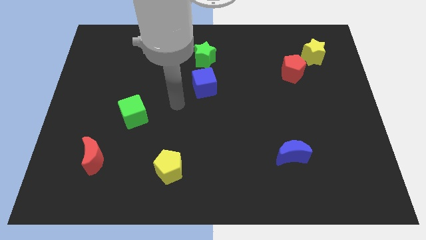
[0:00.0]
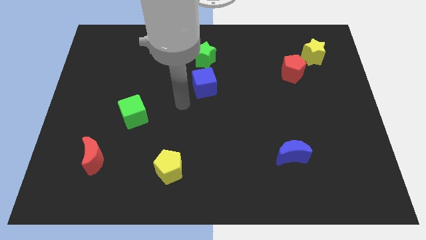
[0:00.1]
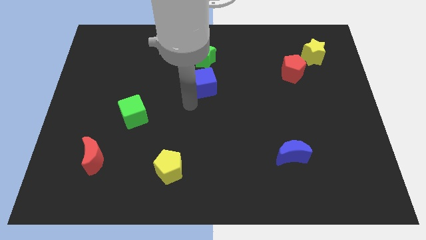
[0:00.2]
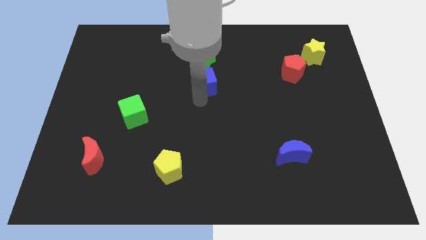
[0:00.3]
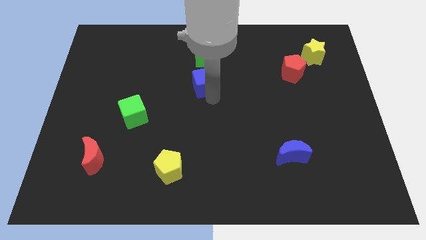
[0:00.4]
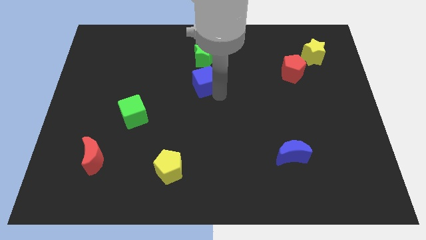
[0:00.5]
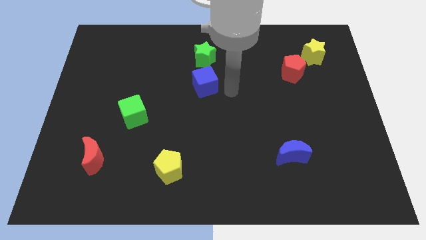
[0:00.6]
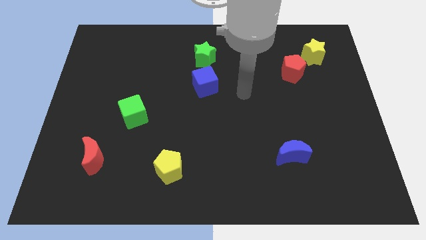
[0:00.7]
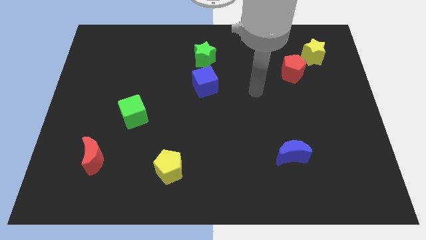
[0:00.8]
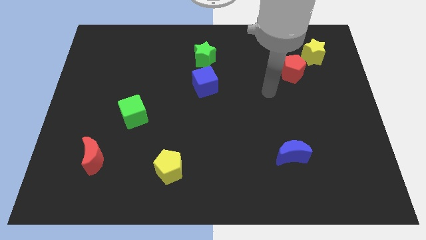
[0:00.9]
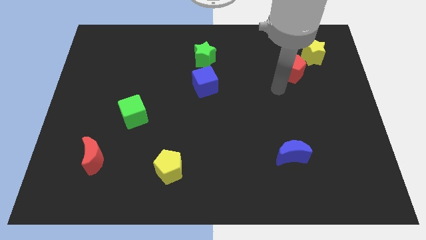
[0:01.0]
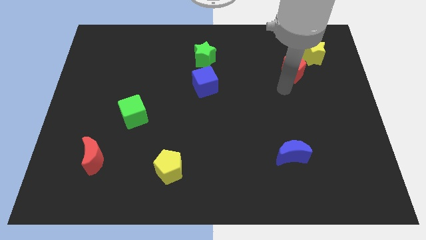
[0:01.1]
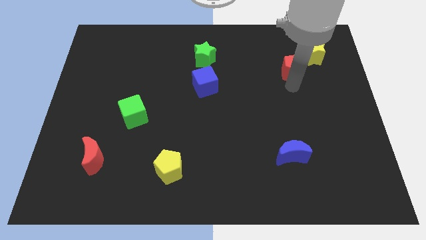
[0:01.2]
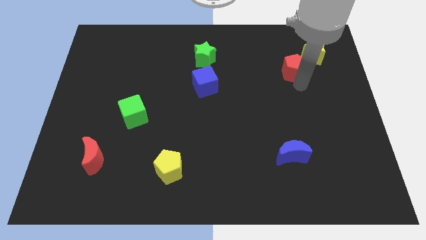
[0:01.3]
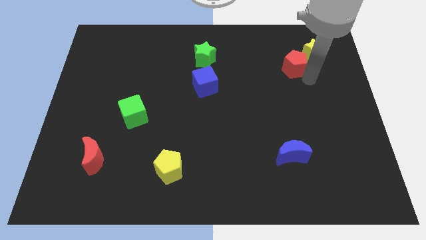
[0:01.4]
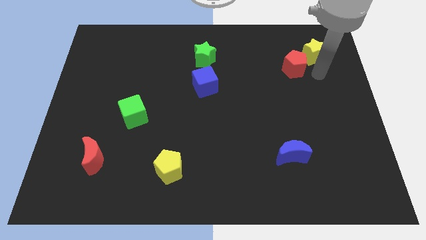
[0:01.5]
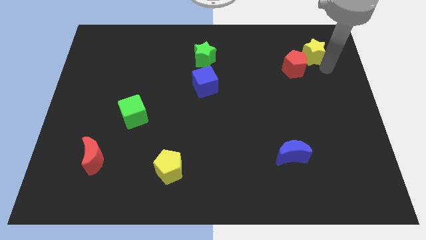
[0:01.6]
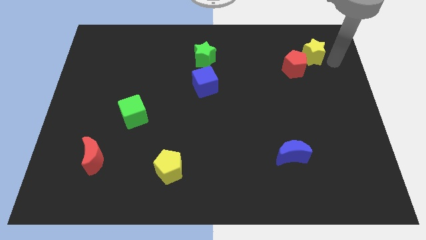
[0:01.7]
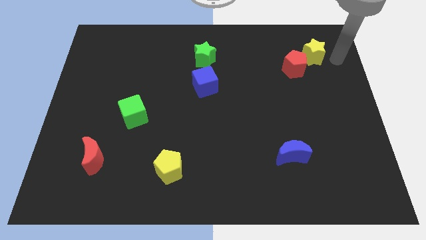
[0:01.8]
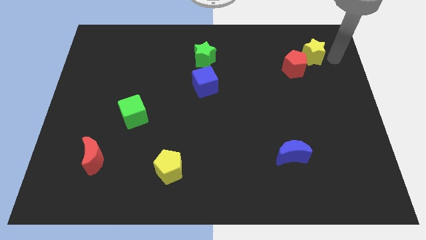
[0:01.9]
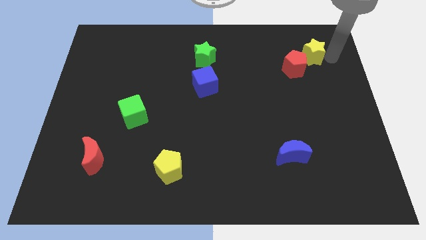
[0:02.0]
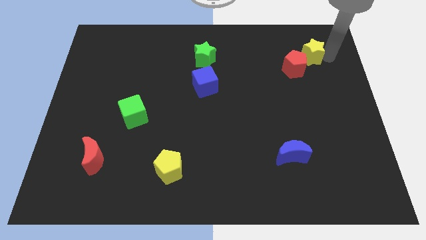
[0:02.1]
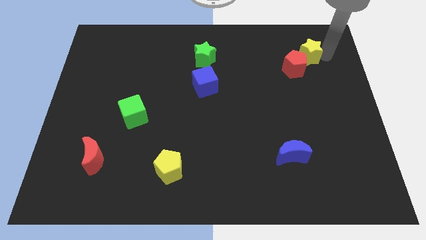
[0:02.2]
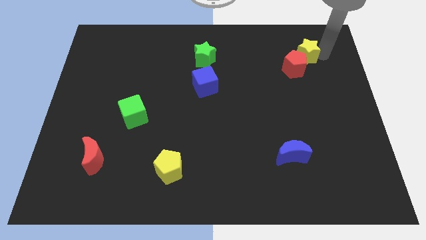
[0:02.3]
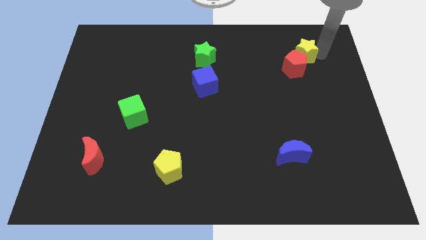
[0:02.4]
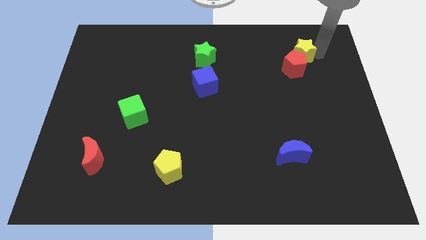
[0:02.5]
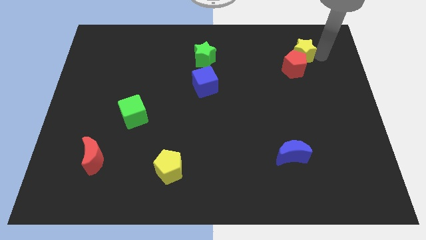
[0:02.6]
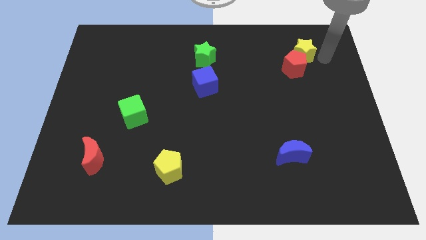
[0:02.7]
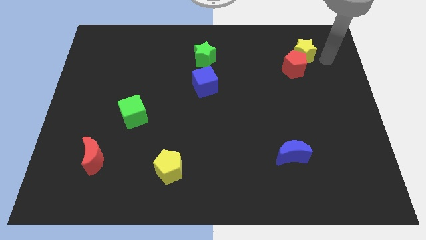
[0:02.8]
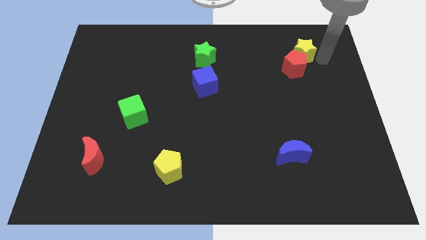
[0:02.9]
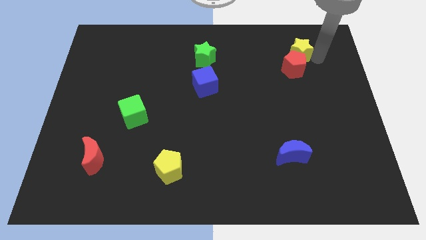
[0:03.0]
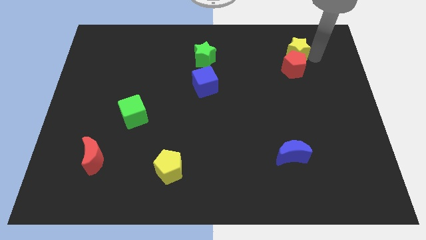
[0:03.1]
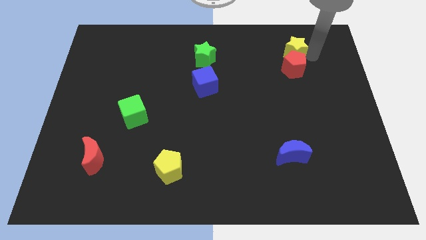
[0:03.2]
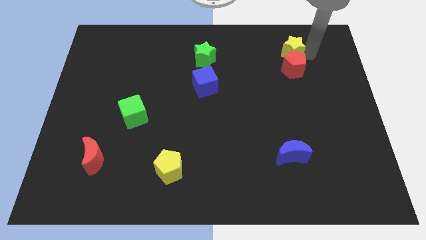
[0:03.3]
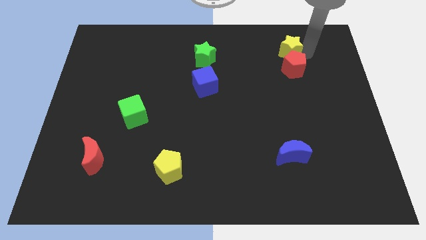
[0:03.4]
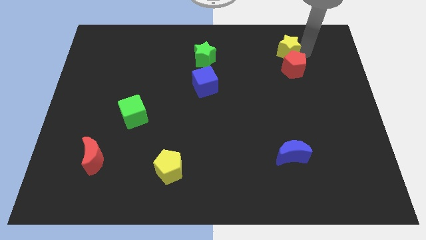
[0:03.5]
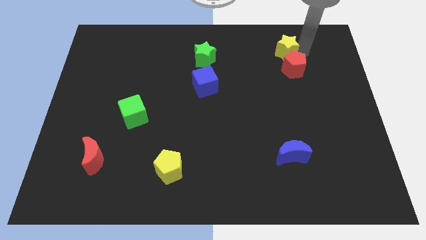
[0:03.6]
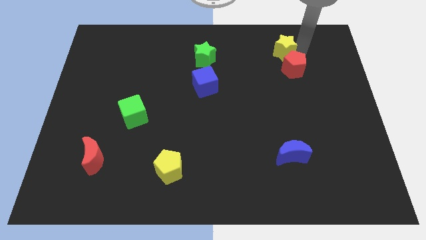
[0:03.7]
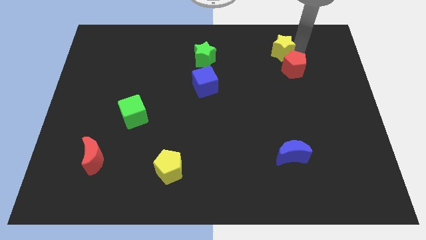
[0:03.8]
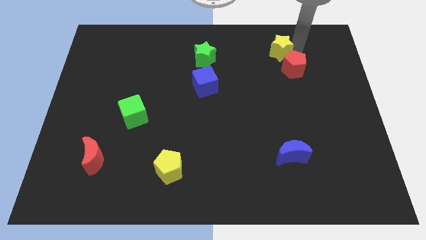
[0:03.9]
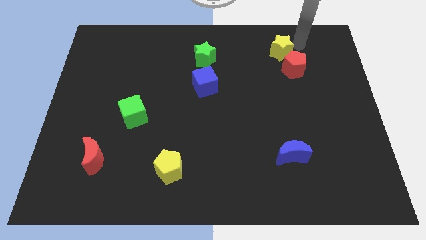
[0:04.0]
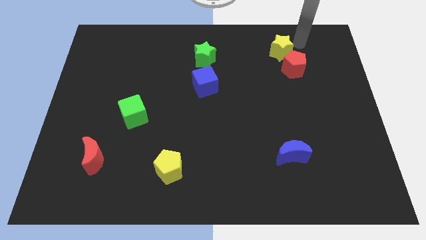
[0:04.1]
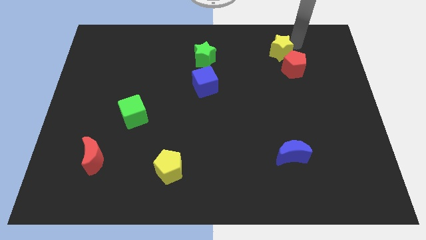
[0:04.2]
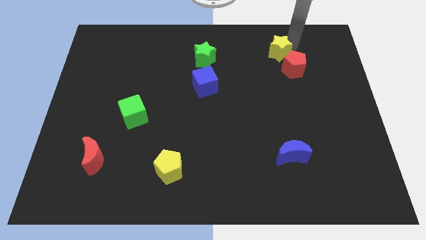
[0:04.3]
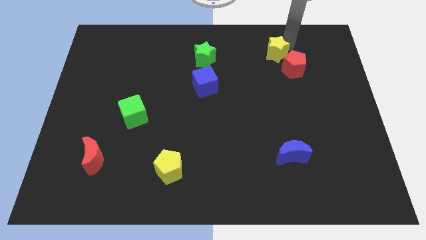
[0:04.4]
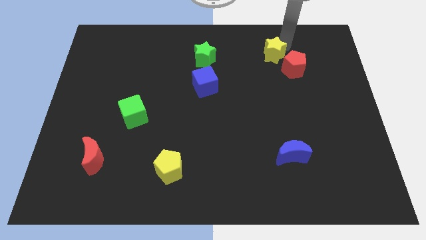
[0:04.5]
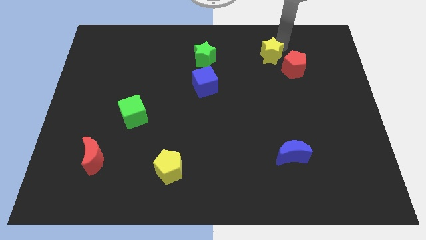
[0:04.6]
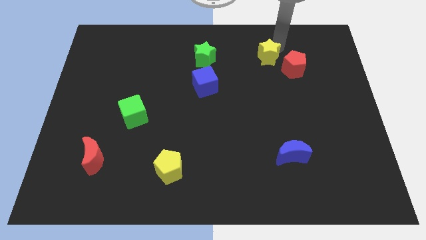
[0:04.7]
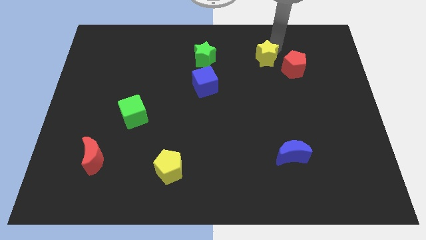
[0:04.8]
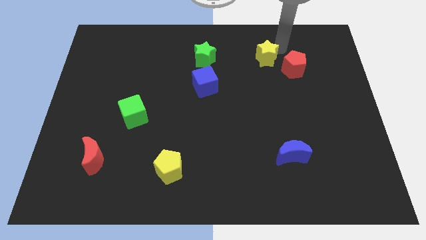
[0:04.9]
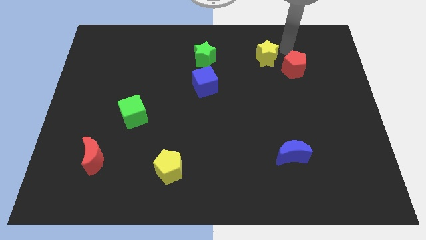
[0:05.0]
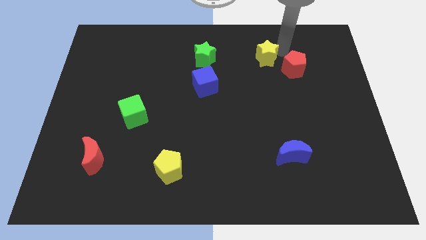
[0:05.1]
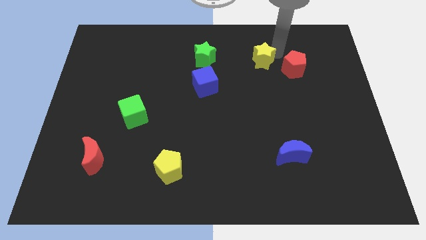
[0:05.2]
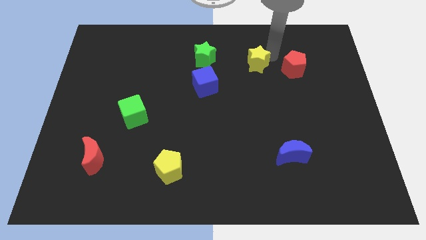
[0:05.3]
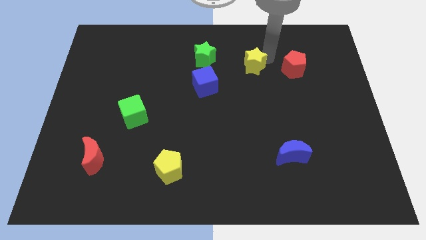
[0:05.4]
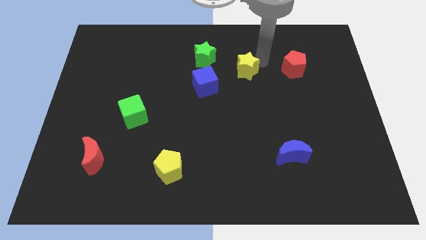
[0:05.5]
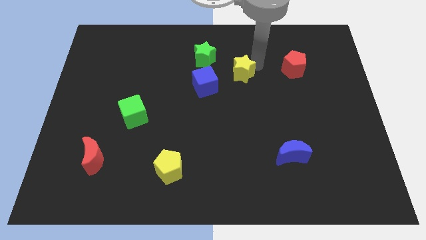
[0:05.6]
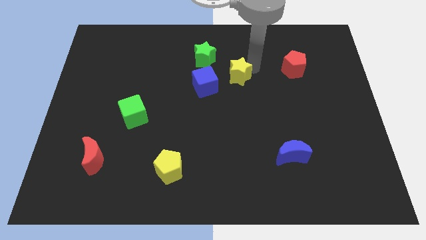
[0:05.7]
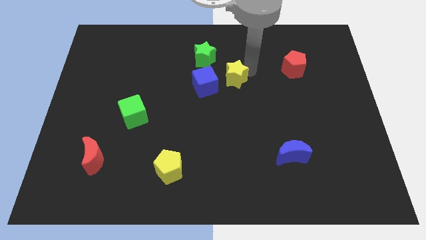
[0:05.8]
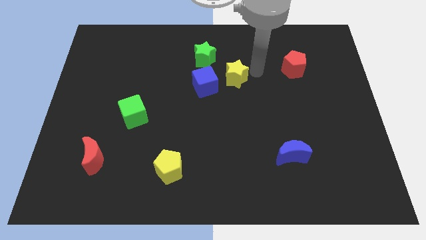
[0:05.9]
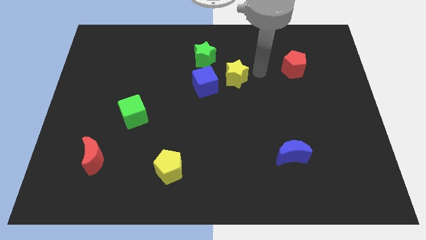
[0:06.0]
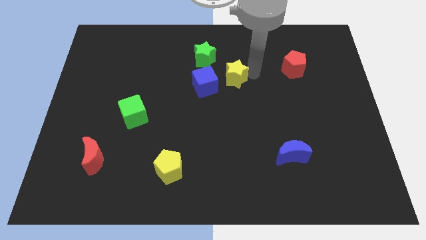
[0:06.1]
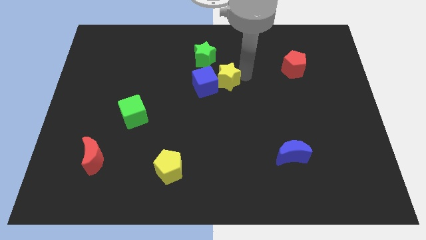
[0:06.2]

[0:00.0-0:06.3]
slide the yellow star towards the blue cube
